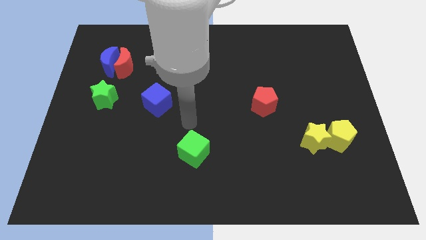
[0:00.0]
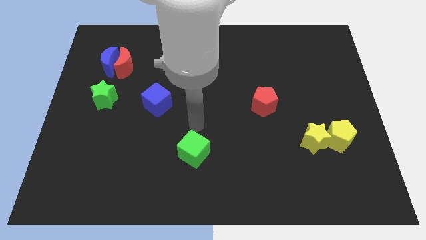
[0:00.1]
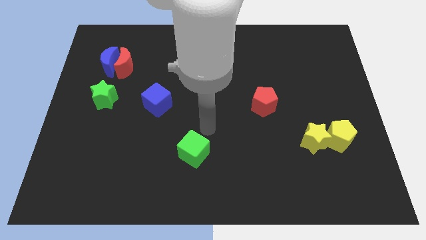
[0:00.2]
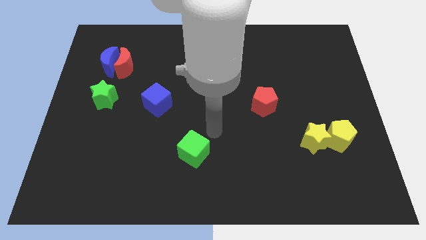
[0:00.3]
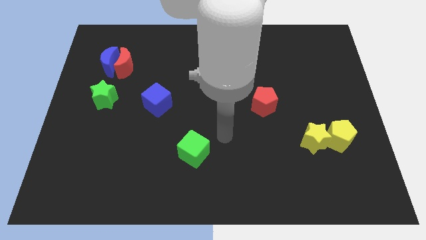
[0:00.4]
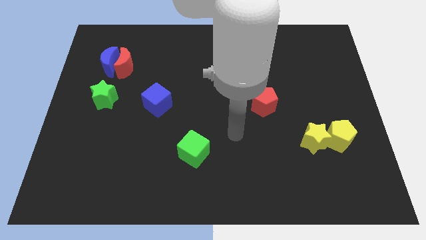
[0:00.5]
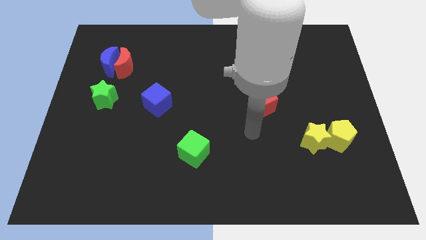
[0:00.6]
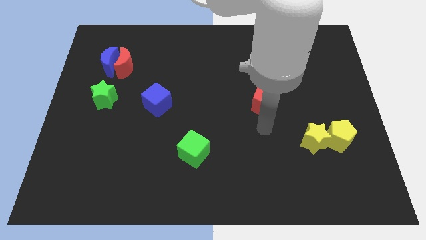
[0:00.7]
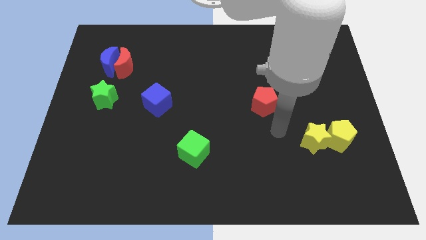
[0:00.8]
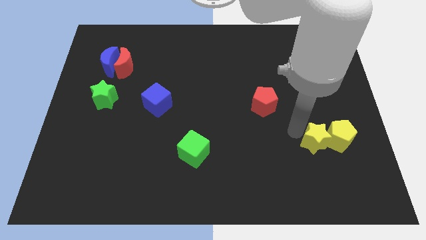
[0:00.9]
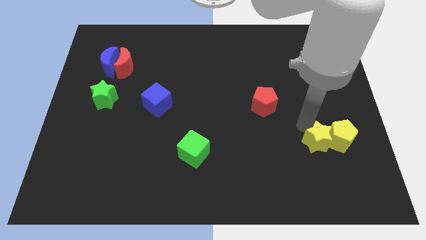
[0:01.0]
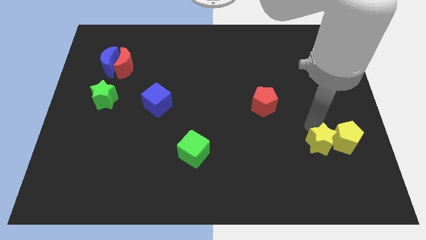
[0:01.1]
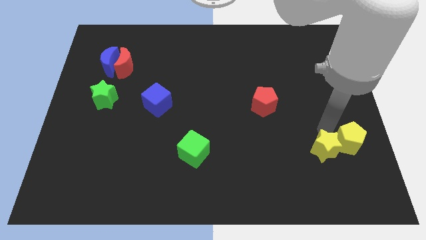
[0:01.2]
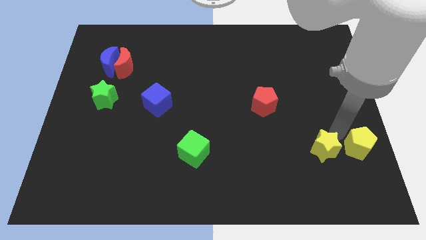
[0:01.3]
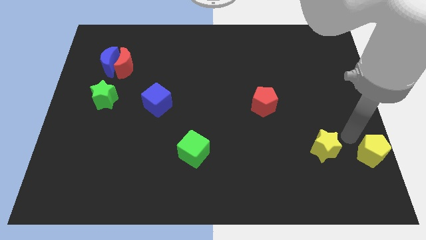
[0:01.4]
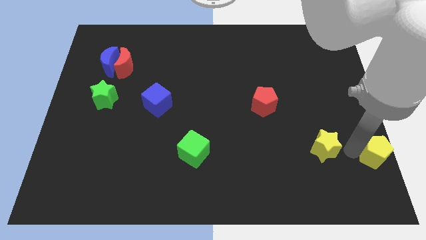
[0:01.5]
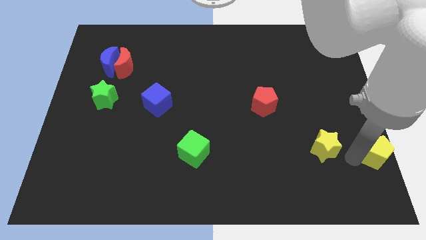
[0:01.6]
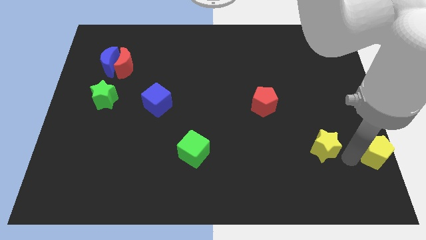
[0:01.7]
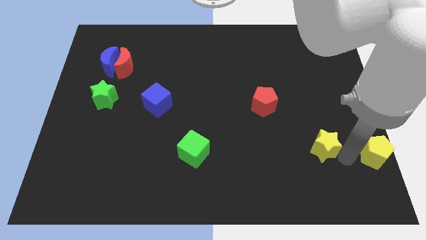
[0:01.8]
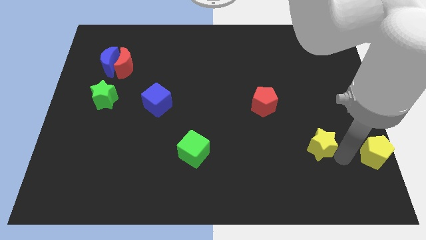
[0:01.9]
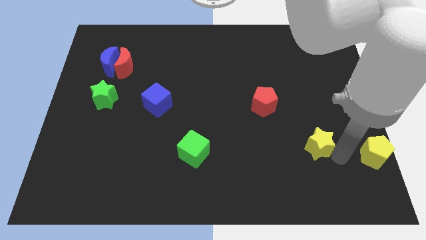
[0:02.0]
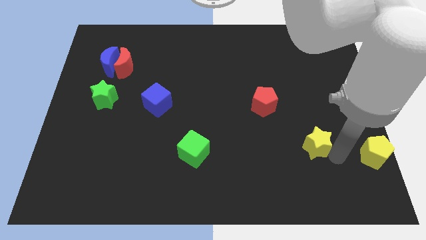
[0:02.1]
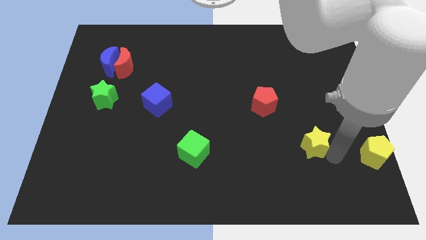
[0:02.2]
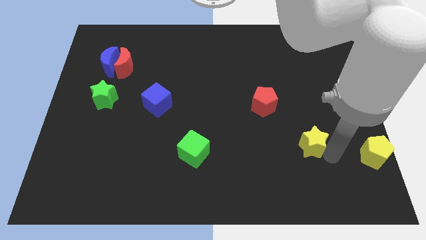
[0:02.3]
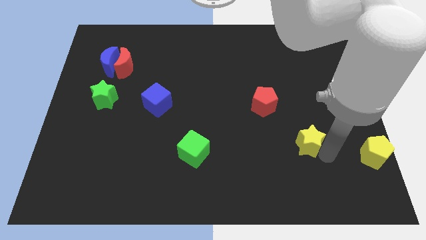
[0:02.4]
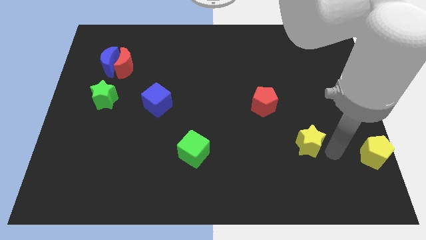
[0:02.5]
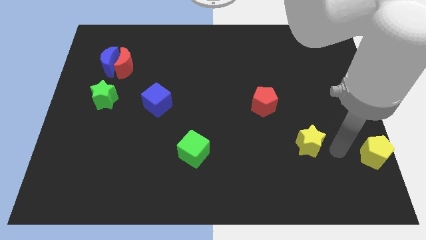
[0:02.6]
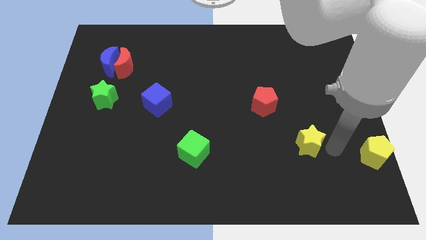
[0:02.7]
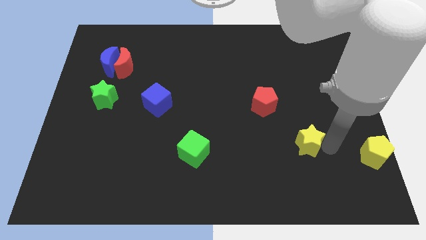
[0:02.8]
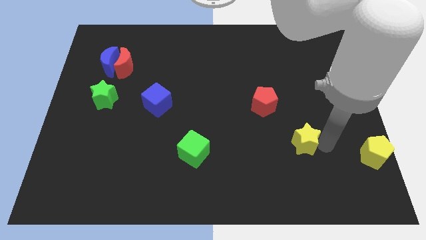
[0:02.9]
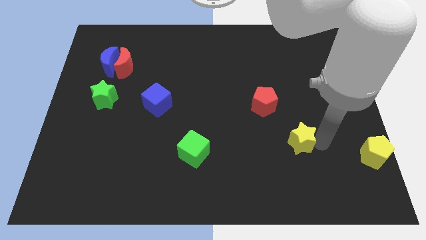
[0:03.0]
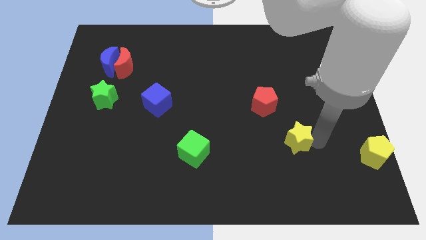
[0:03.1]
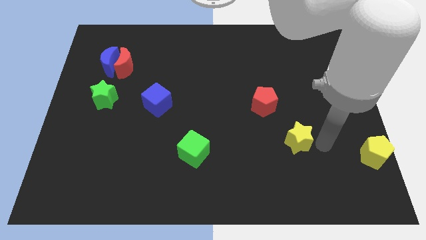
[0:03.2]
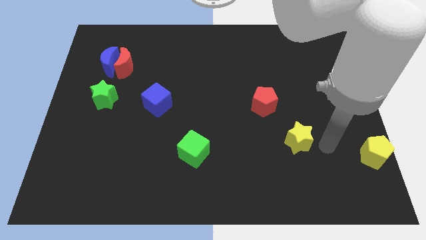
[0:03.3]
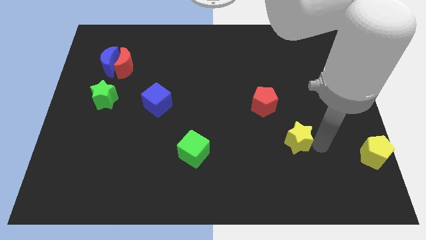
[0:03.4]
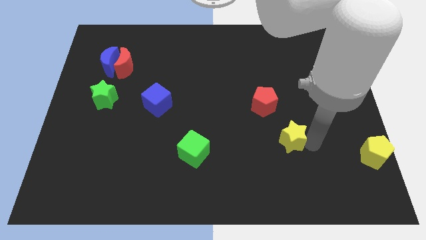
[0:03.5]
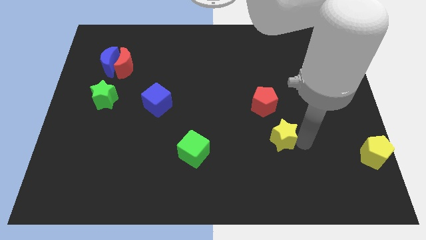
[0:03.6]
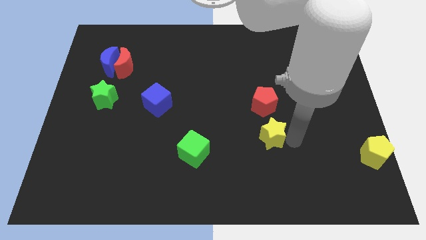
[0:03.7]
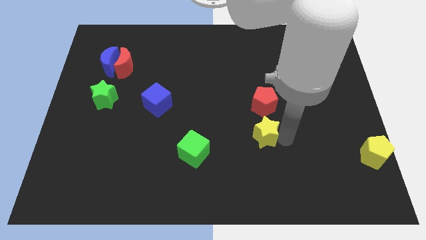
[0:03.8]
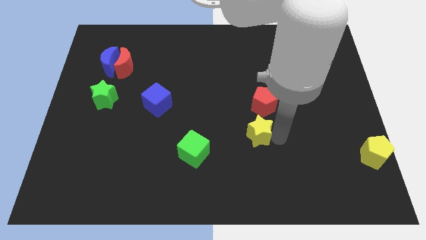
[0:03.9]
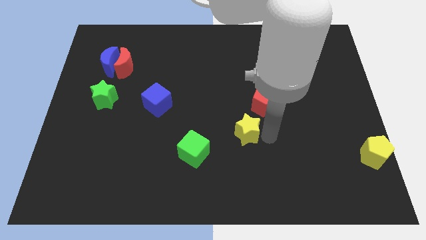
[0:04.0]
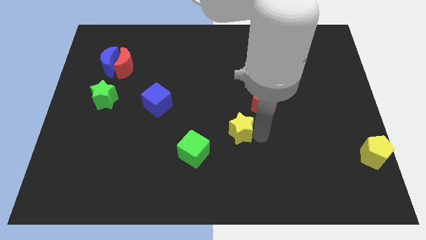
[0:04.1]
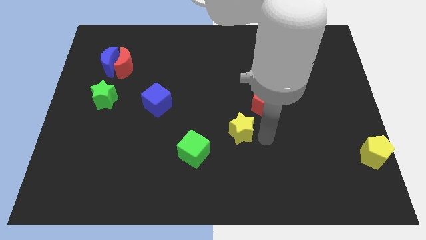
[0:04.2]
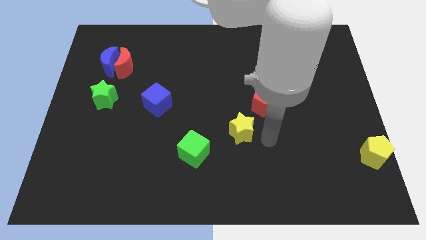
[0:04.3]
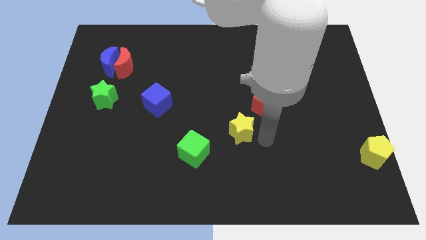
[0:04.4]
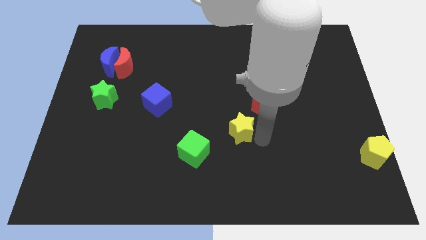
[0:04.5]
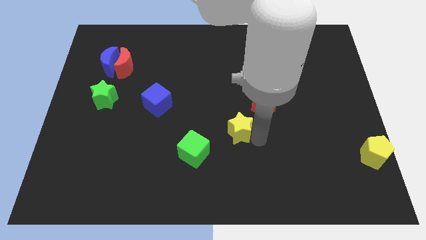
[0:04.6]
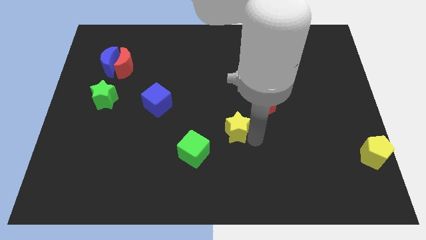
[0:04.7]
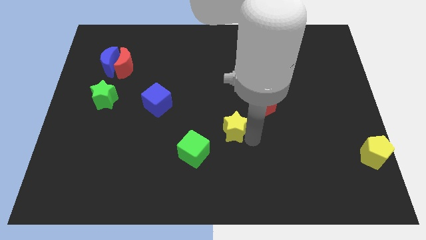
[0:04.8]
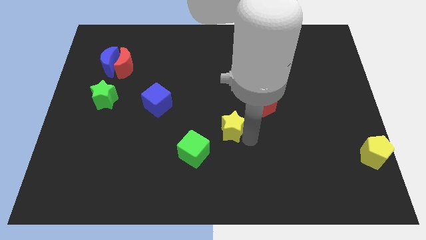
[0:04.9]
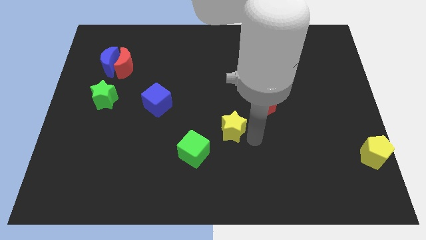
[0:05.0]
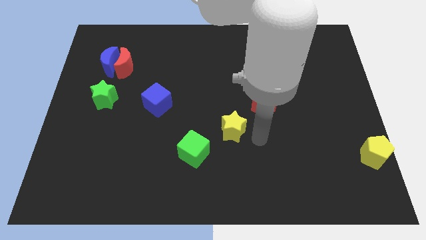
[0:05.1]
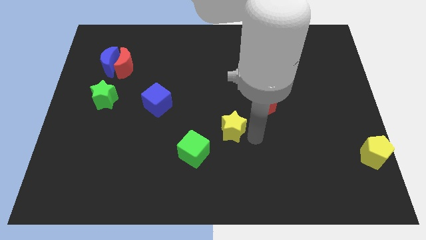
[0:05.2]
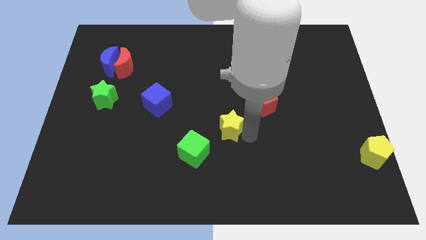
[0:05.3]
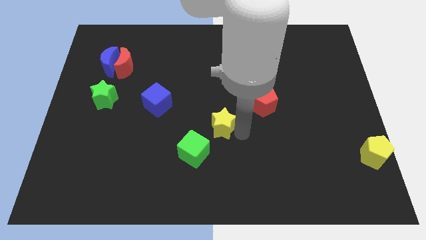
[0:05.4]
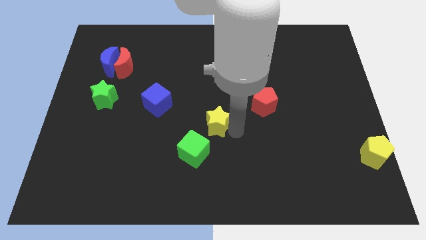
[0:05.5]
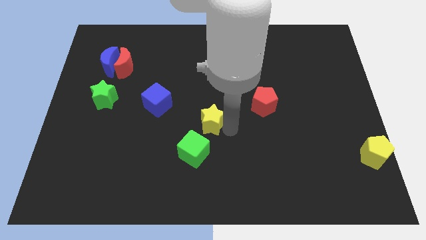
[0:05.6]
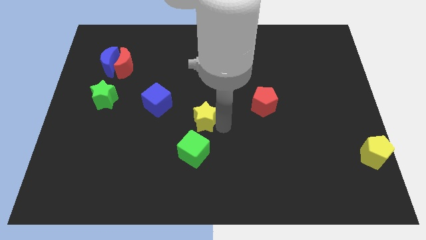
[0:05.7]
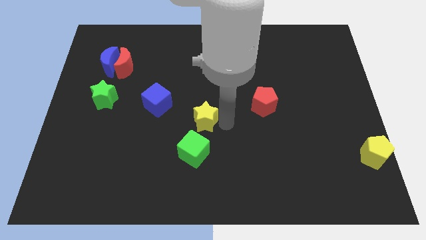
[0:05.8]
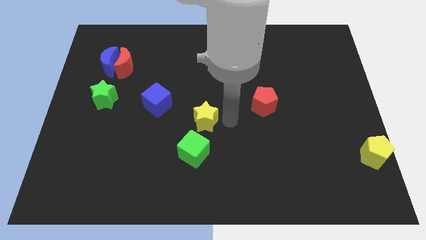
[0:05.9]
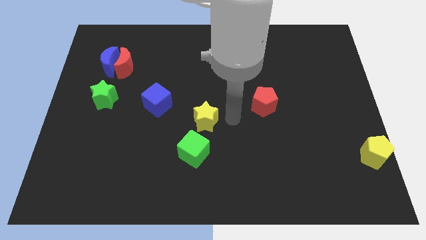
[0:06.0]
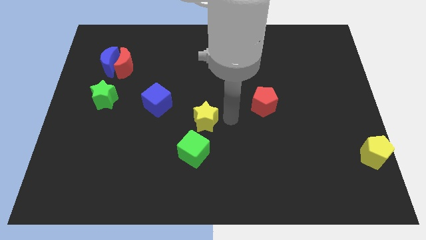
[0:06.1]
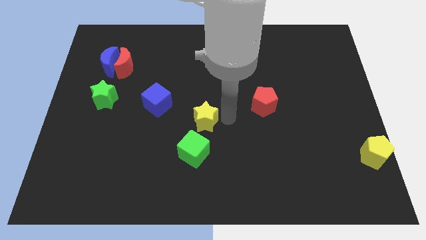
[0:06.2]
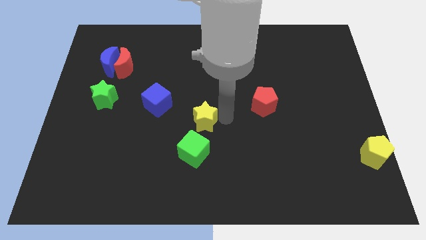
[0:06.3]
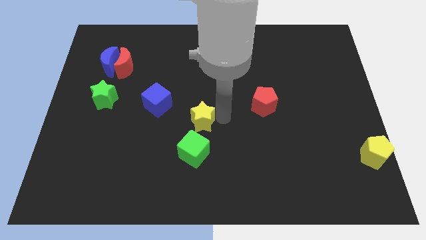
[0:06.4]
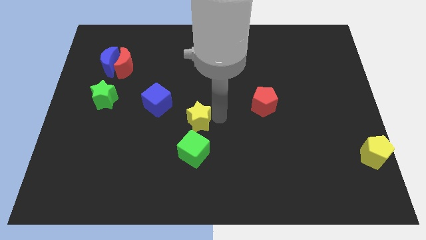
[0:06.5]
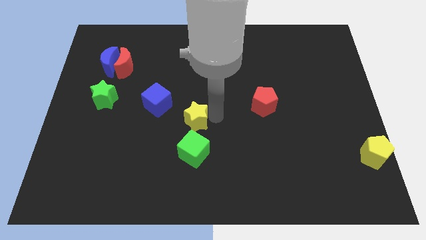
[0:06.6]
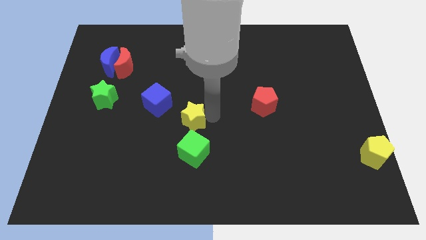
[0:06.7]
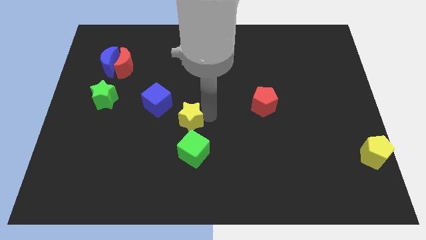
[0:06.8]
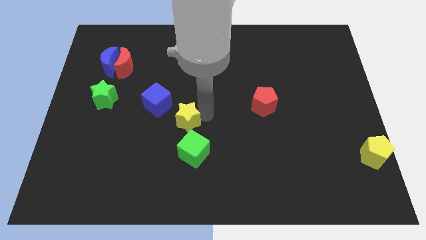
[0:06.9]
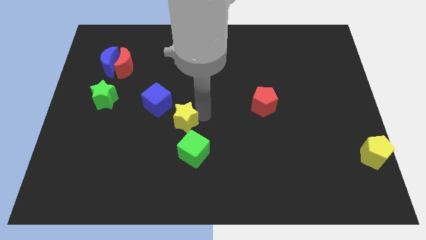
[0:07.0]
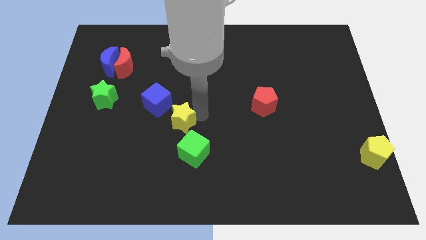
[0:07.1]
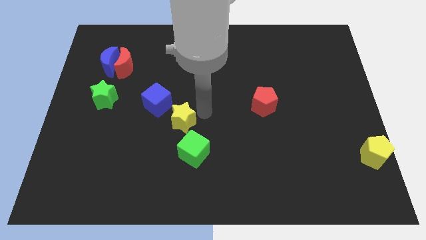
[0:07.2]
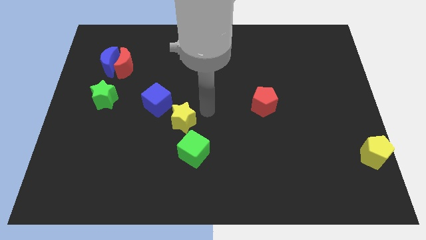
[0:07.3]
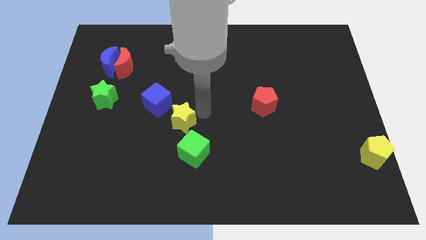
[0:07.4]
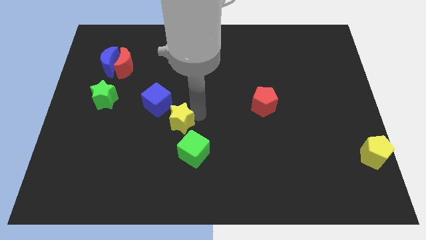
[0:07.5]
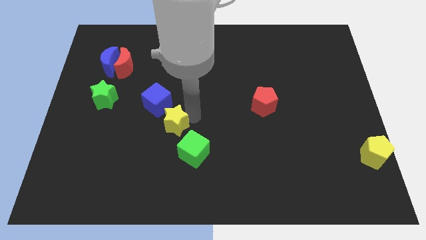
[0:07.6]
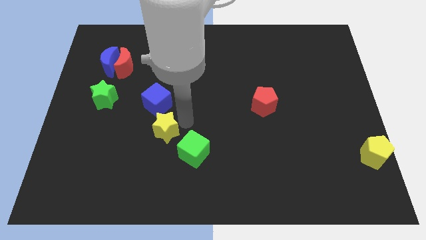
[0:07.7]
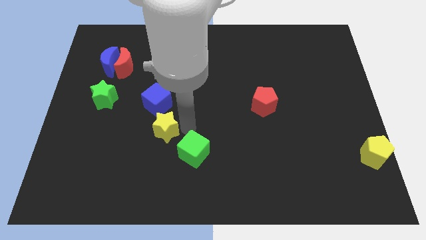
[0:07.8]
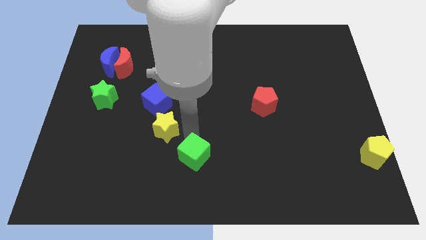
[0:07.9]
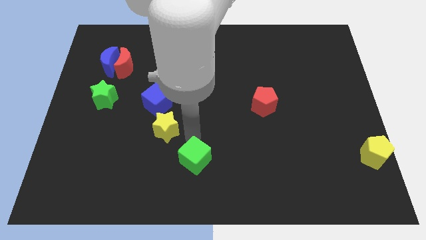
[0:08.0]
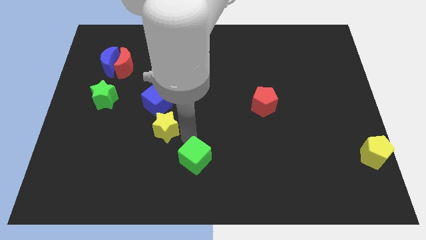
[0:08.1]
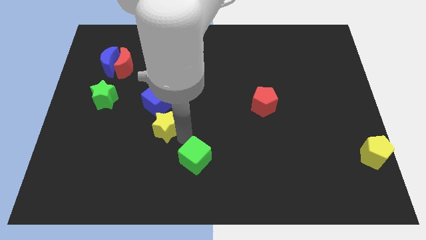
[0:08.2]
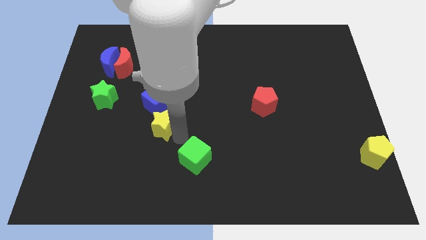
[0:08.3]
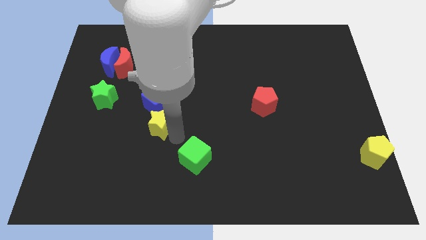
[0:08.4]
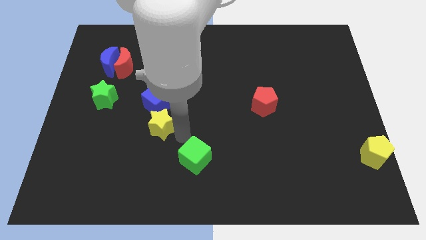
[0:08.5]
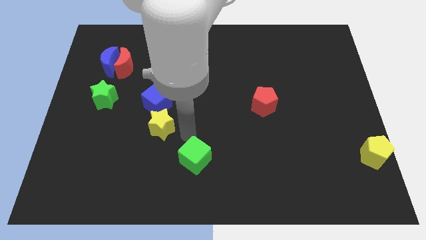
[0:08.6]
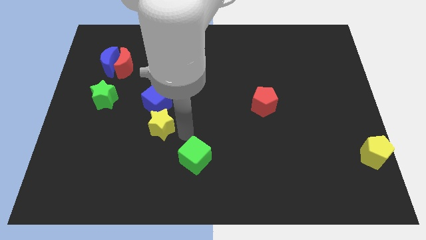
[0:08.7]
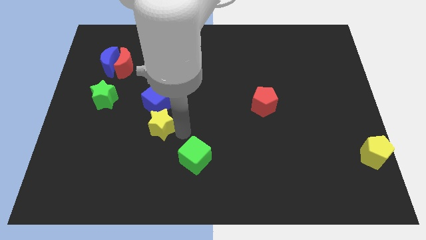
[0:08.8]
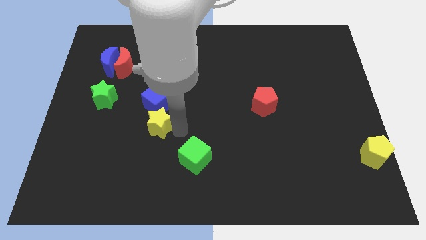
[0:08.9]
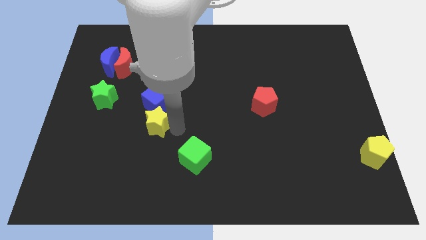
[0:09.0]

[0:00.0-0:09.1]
push the yellow star to the bottom left side of the blue cube
